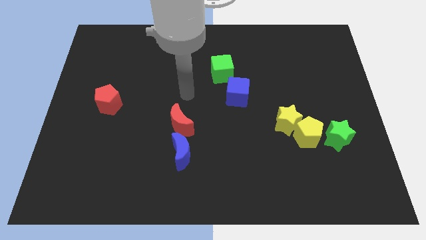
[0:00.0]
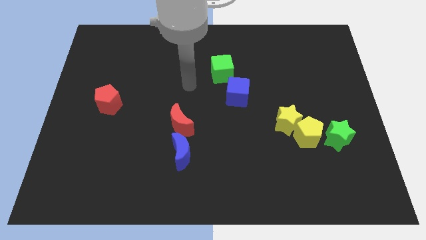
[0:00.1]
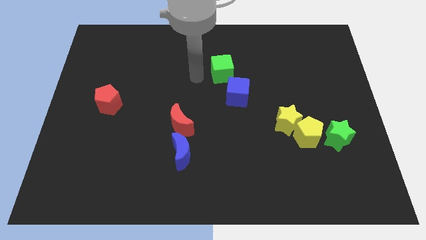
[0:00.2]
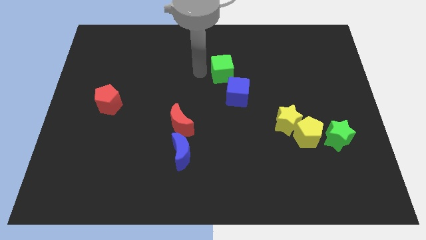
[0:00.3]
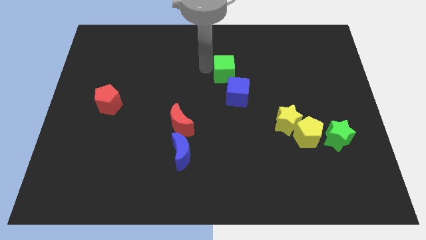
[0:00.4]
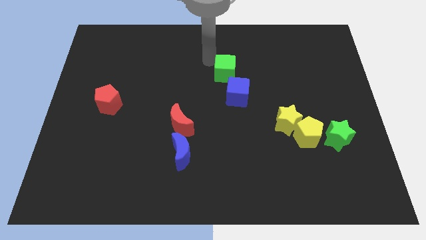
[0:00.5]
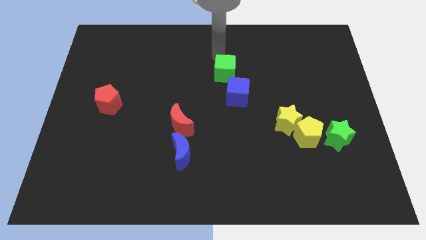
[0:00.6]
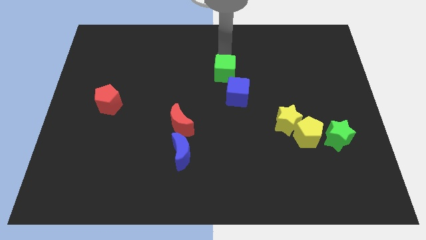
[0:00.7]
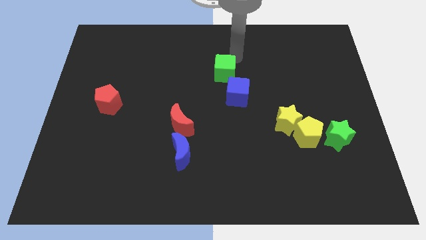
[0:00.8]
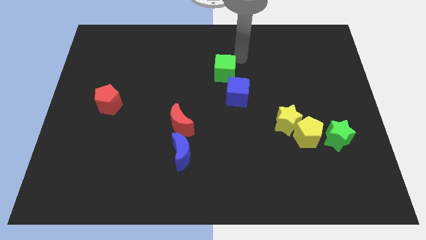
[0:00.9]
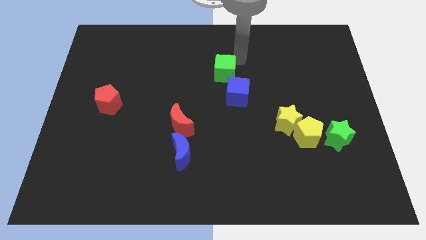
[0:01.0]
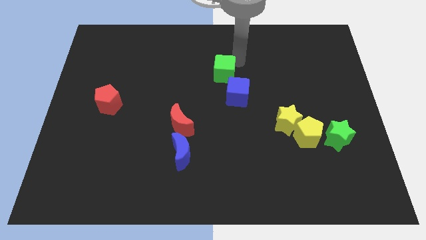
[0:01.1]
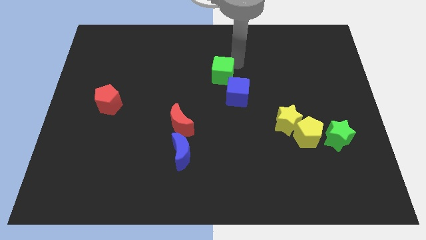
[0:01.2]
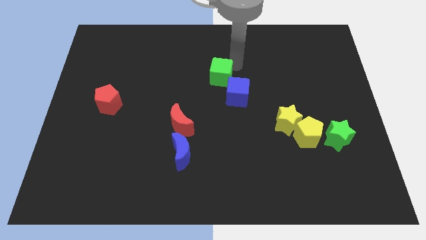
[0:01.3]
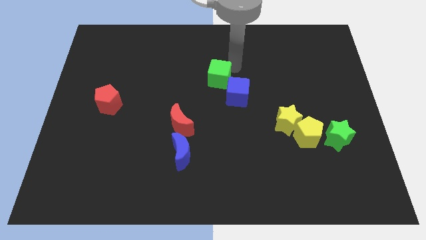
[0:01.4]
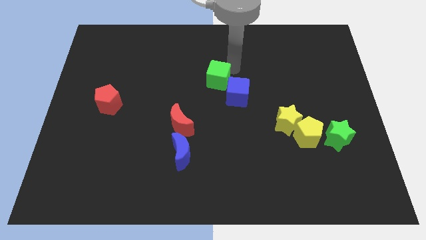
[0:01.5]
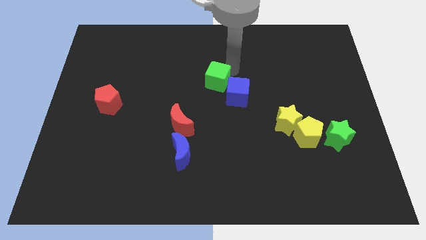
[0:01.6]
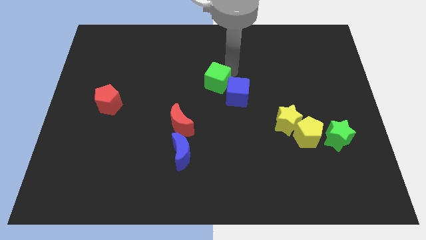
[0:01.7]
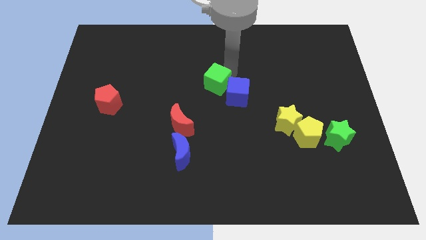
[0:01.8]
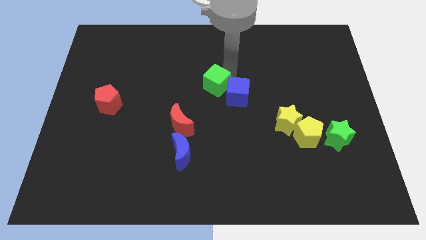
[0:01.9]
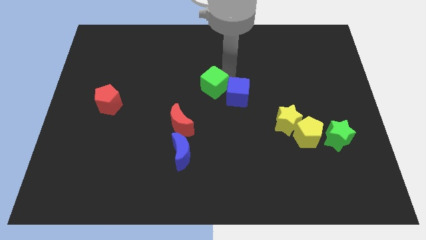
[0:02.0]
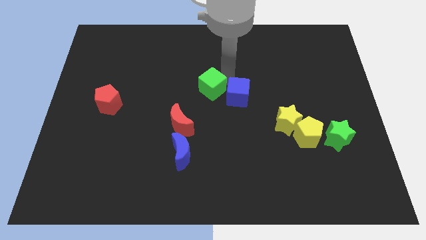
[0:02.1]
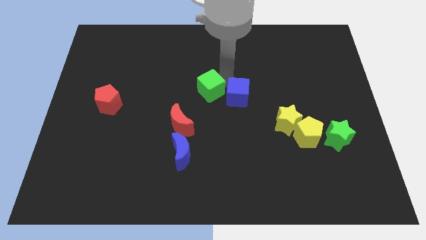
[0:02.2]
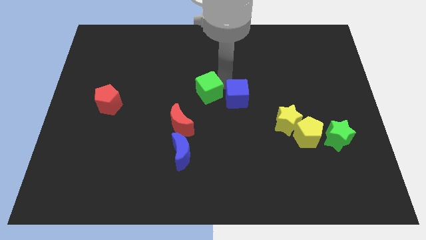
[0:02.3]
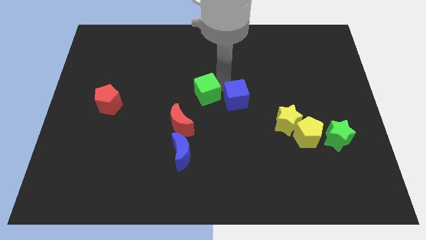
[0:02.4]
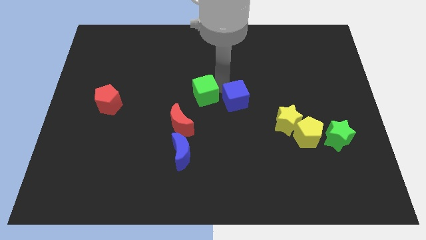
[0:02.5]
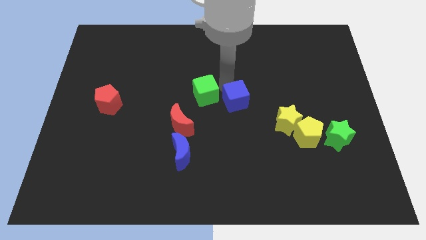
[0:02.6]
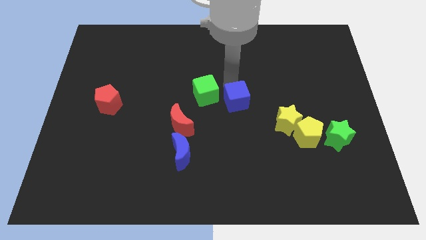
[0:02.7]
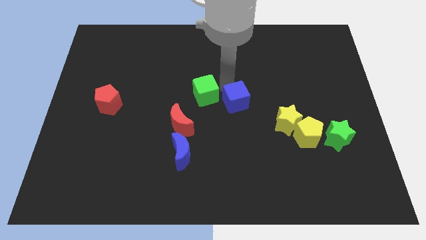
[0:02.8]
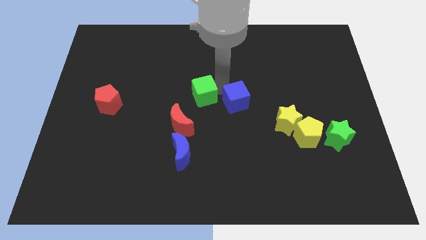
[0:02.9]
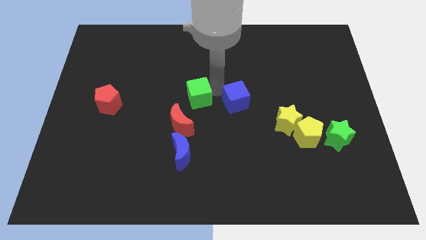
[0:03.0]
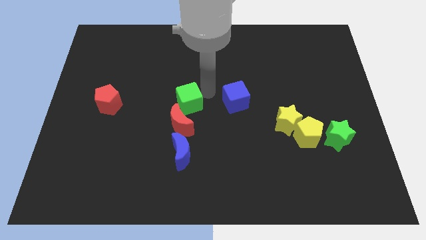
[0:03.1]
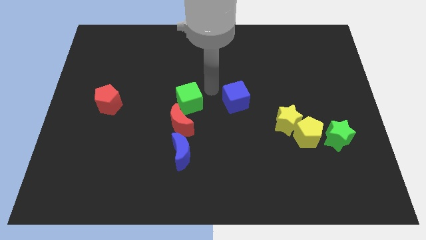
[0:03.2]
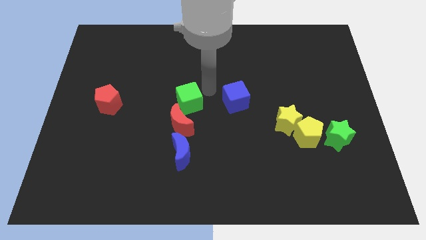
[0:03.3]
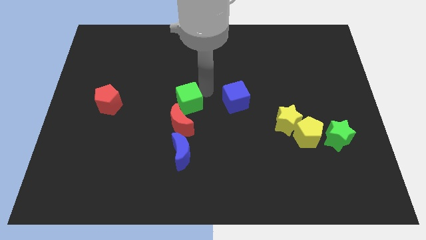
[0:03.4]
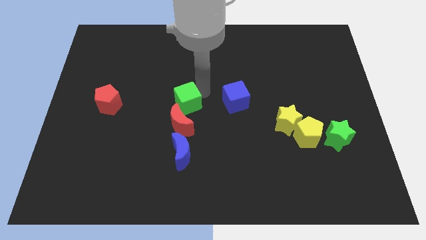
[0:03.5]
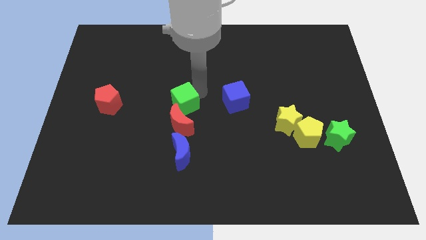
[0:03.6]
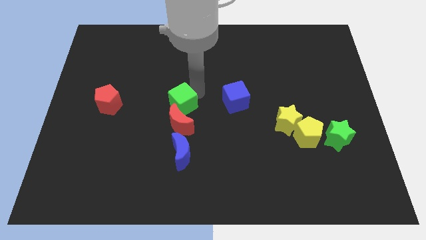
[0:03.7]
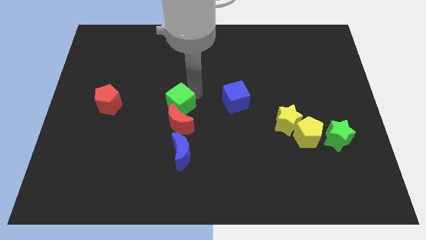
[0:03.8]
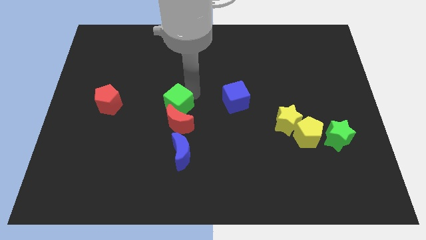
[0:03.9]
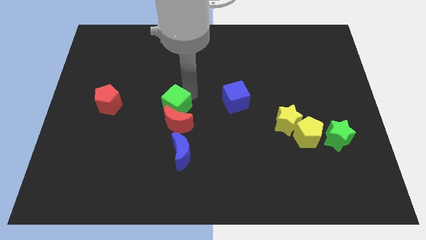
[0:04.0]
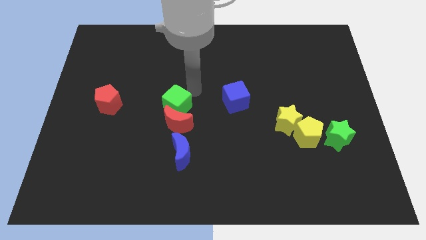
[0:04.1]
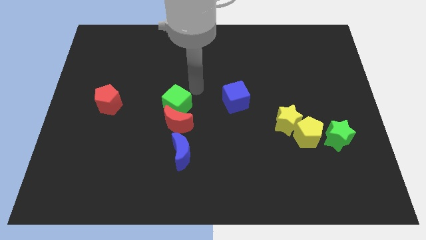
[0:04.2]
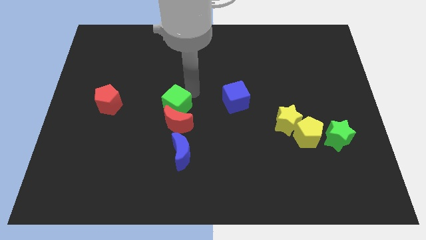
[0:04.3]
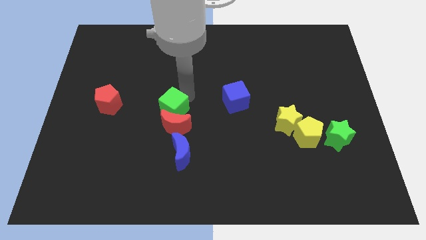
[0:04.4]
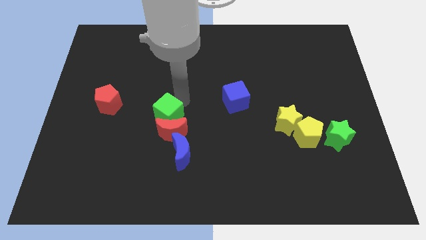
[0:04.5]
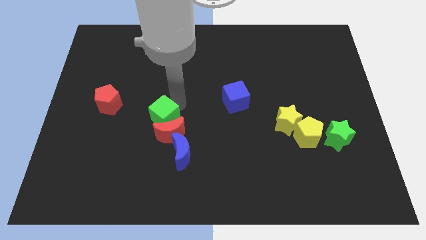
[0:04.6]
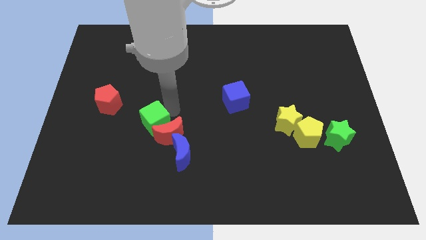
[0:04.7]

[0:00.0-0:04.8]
move the green cube diagonally down and to the left

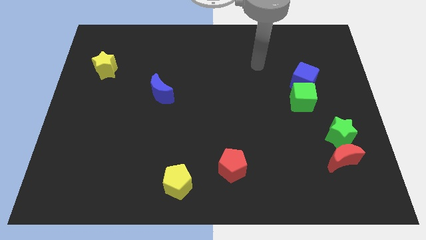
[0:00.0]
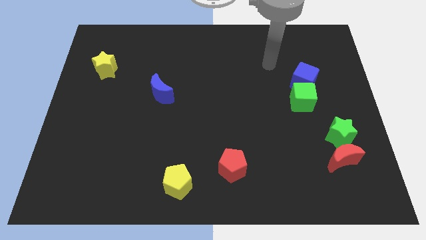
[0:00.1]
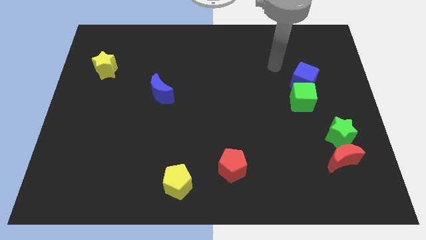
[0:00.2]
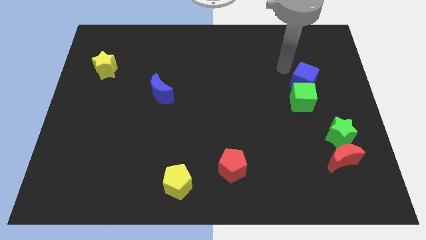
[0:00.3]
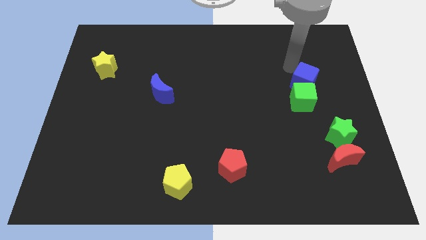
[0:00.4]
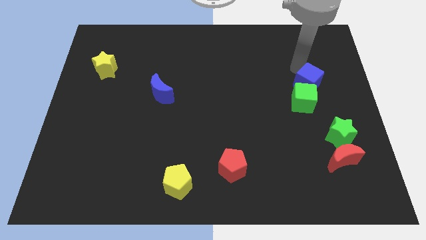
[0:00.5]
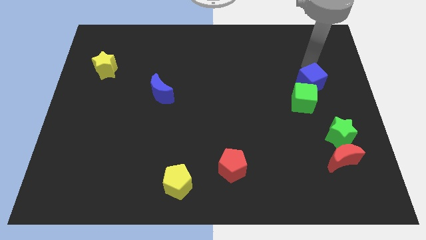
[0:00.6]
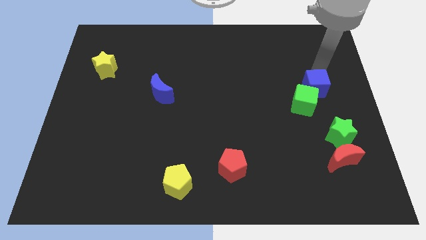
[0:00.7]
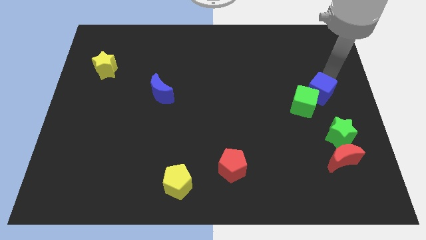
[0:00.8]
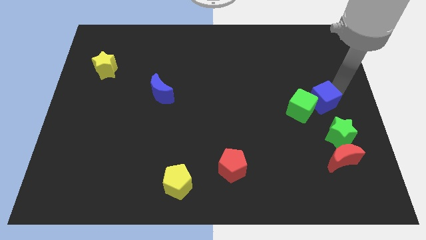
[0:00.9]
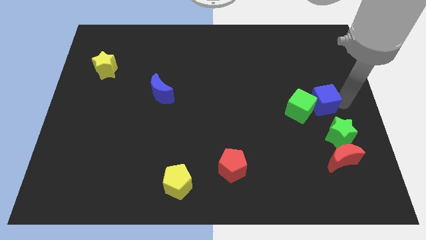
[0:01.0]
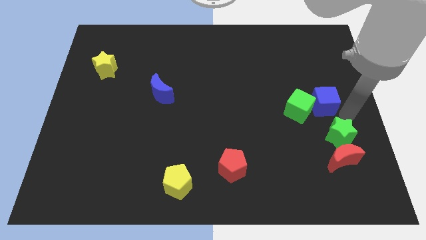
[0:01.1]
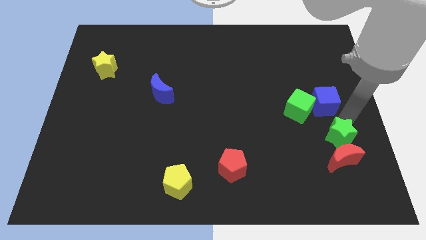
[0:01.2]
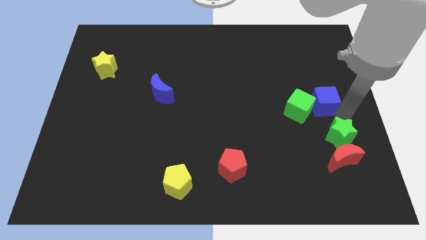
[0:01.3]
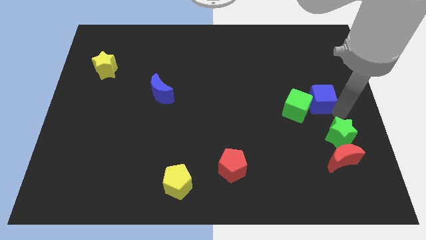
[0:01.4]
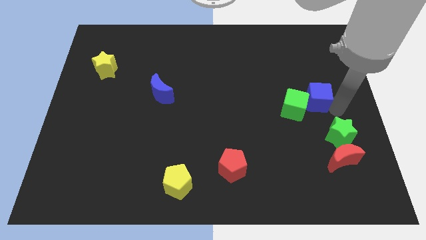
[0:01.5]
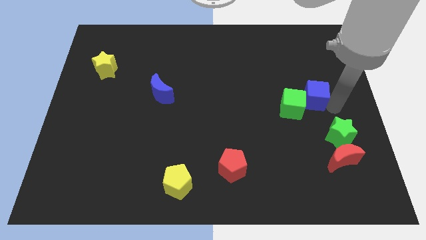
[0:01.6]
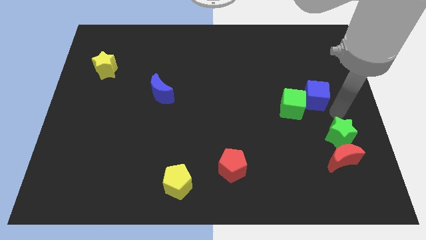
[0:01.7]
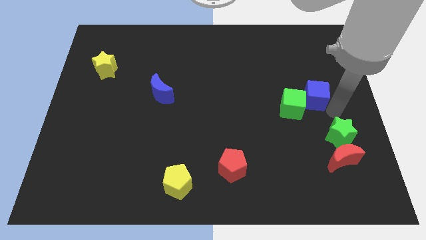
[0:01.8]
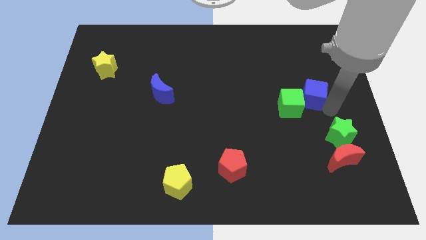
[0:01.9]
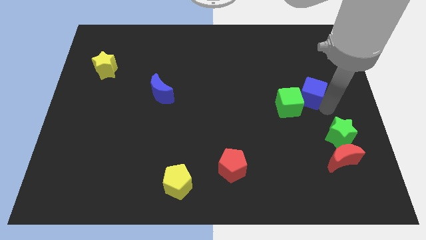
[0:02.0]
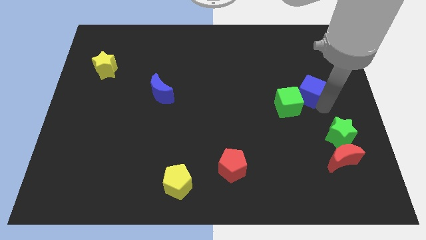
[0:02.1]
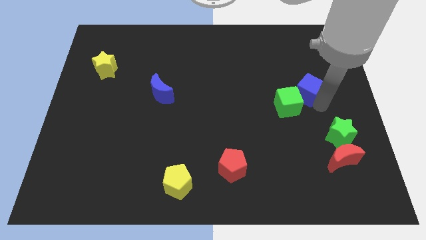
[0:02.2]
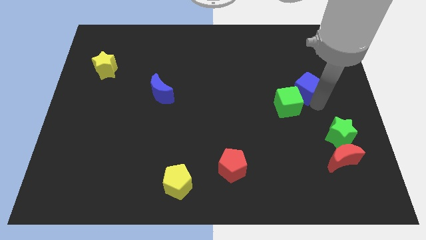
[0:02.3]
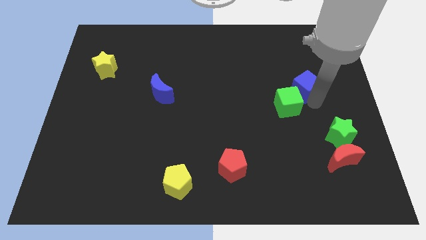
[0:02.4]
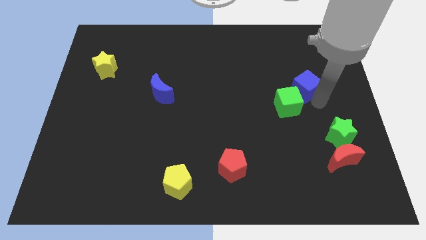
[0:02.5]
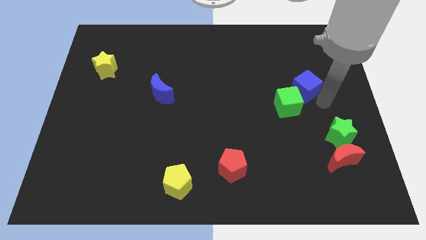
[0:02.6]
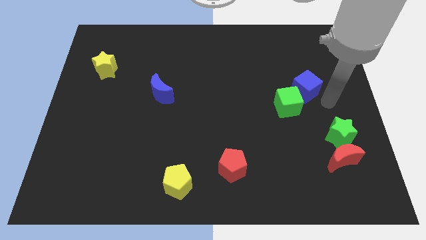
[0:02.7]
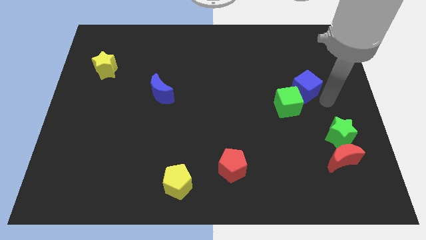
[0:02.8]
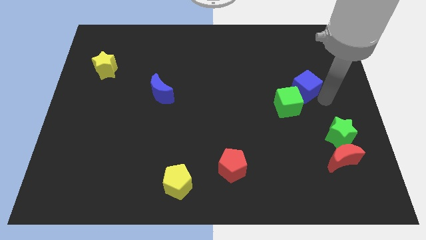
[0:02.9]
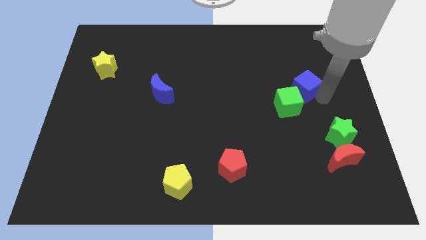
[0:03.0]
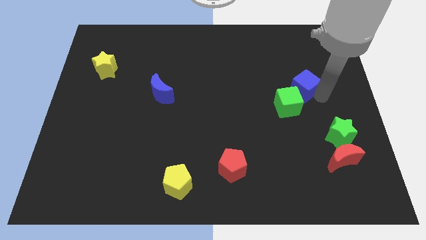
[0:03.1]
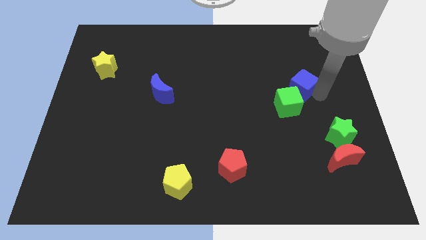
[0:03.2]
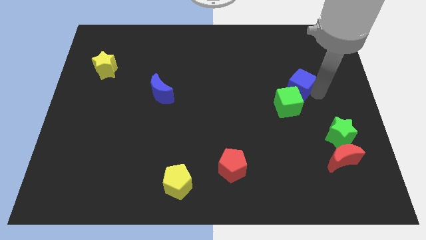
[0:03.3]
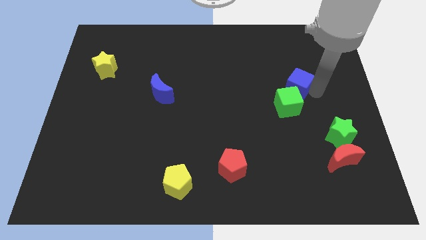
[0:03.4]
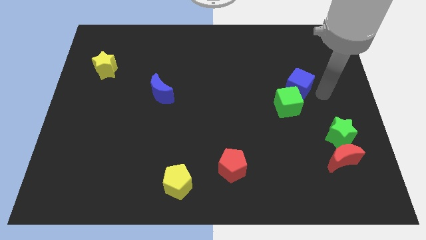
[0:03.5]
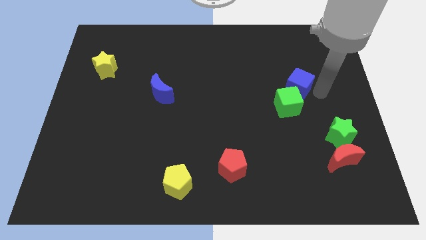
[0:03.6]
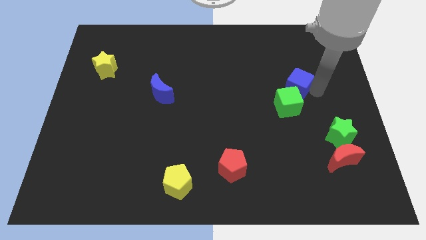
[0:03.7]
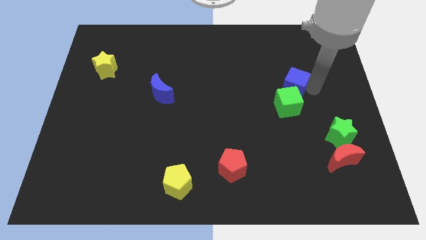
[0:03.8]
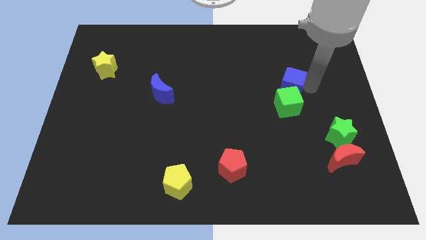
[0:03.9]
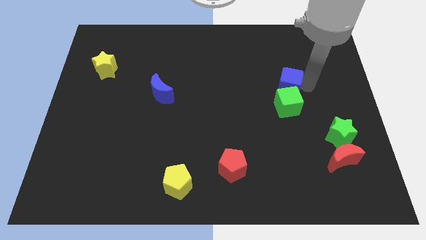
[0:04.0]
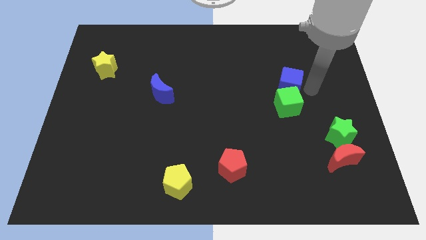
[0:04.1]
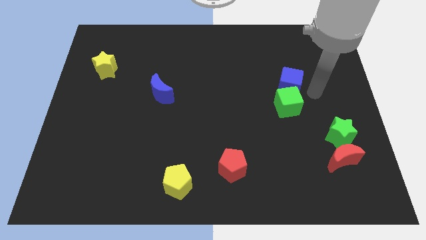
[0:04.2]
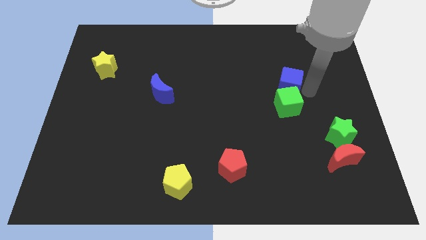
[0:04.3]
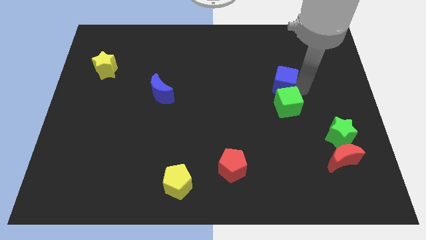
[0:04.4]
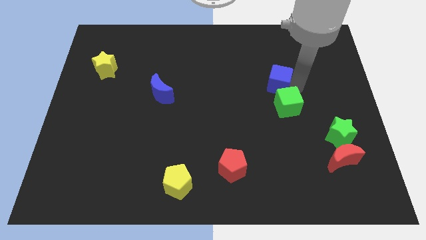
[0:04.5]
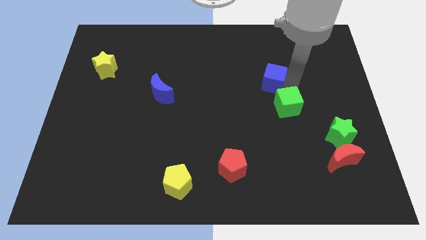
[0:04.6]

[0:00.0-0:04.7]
slightly push the blue cube left
